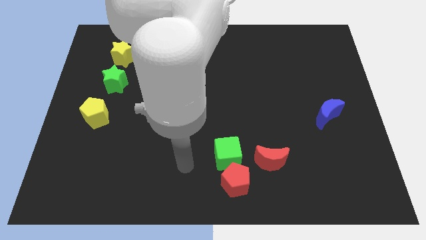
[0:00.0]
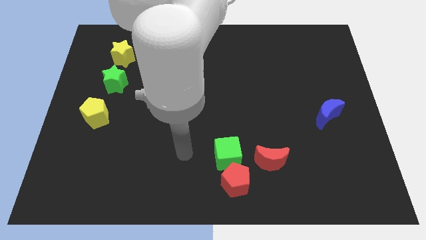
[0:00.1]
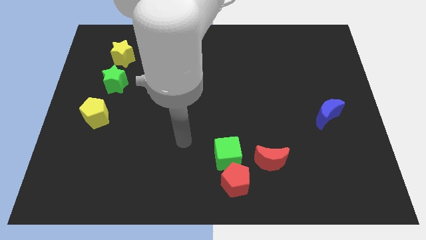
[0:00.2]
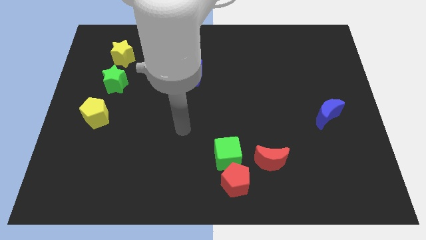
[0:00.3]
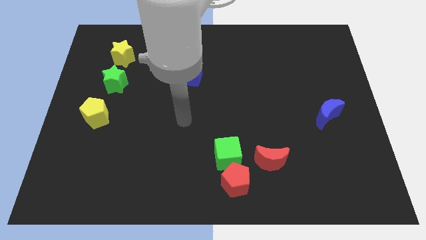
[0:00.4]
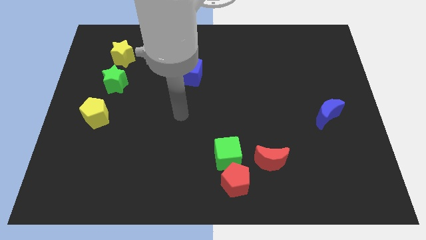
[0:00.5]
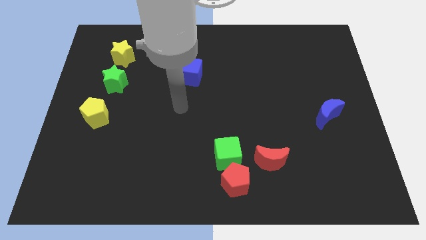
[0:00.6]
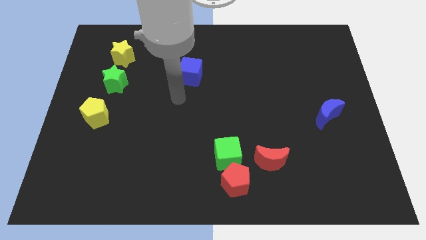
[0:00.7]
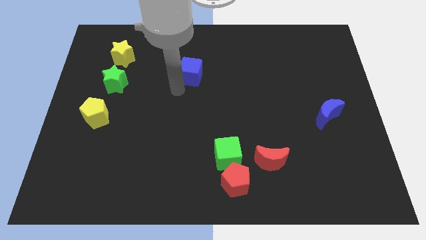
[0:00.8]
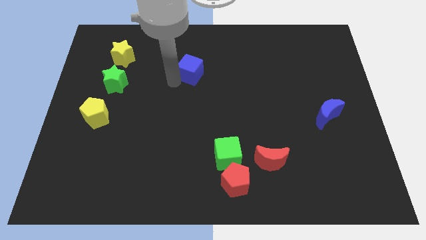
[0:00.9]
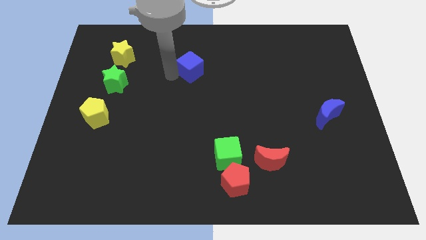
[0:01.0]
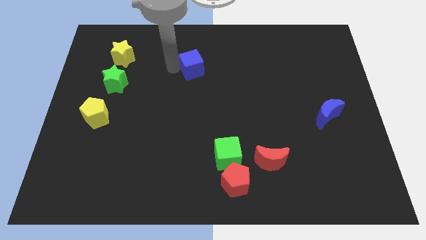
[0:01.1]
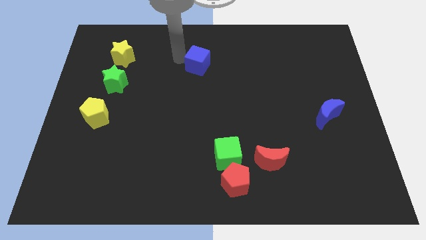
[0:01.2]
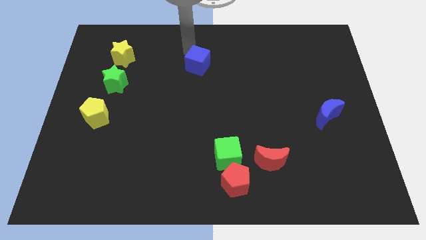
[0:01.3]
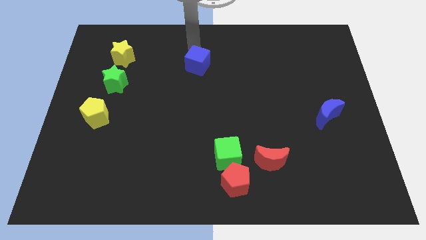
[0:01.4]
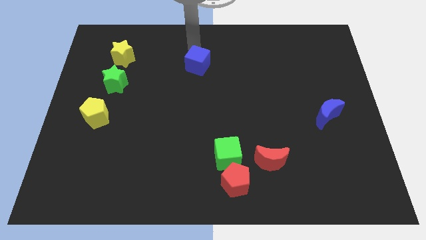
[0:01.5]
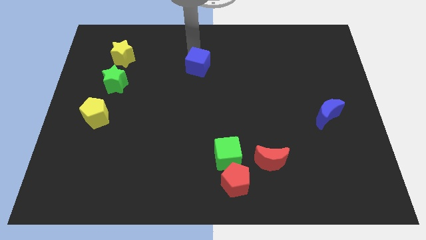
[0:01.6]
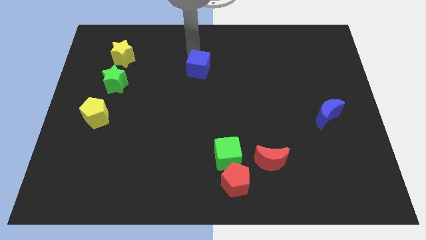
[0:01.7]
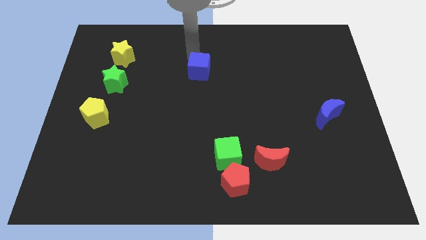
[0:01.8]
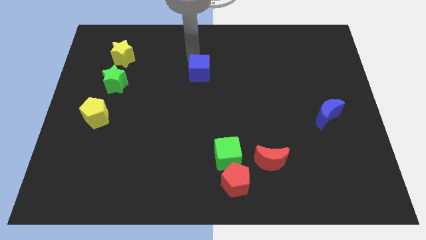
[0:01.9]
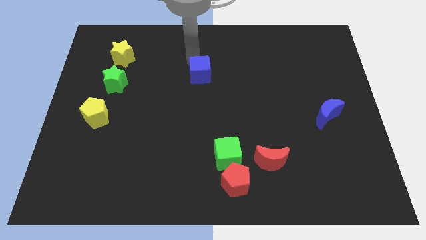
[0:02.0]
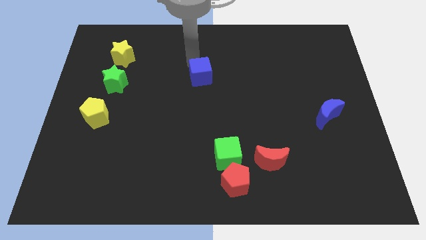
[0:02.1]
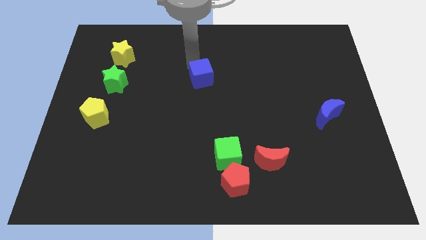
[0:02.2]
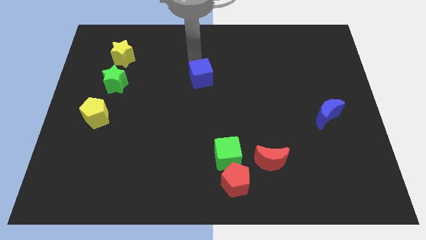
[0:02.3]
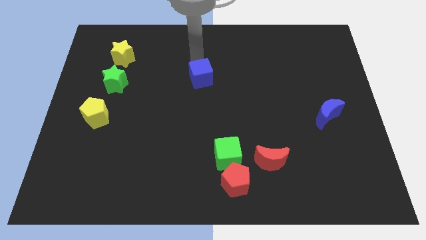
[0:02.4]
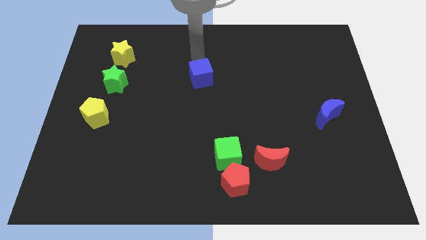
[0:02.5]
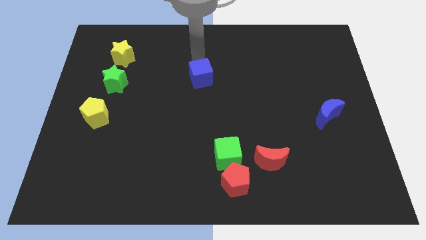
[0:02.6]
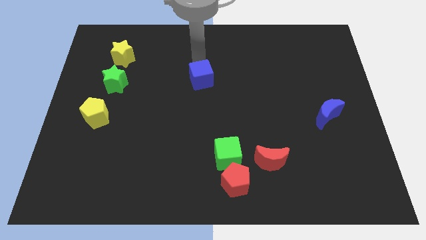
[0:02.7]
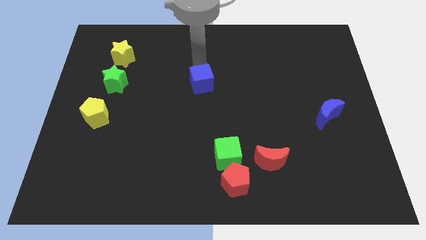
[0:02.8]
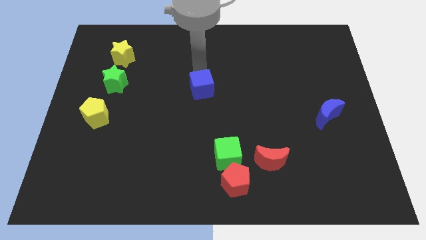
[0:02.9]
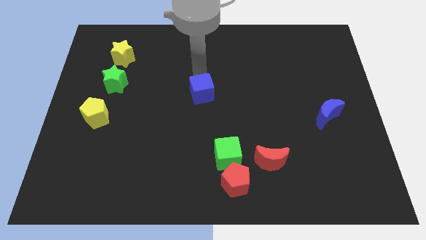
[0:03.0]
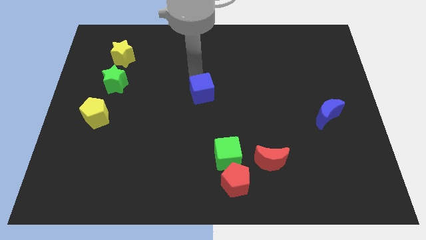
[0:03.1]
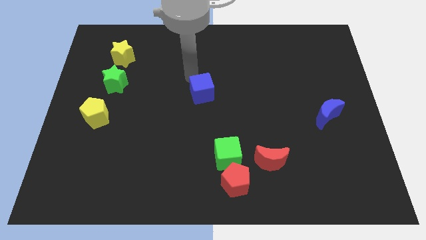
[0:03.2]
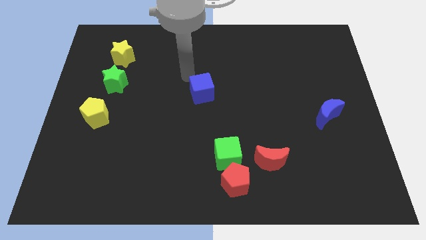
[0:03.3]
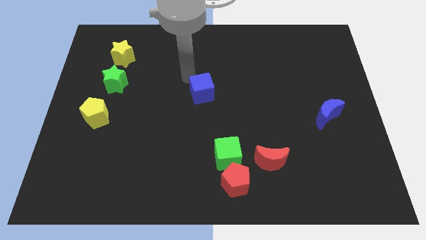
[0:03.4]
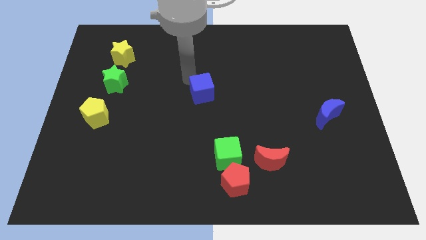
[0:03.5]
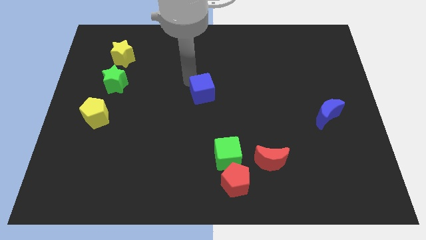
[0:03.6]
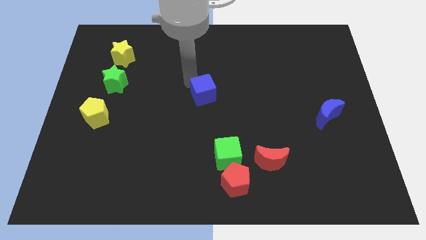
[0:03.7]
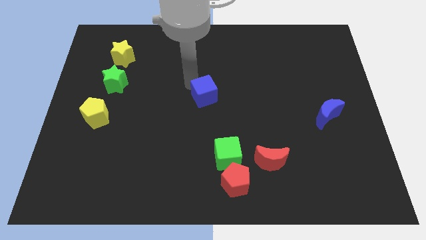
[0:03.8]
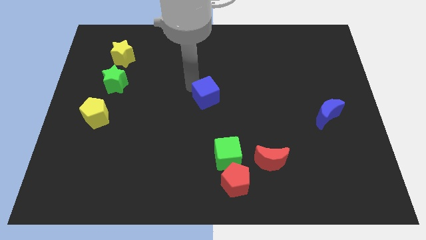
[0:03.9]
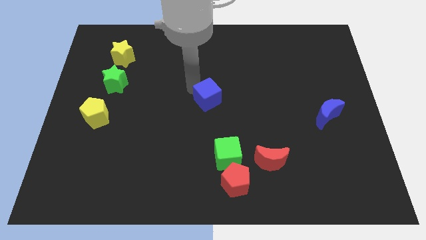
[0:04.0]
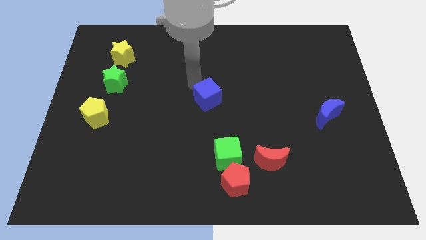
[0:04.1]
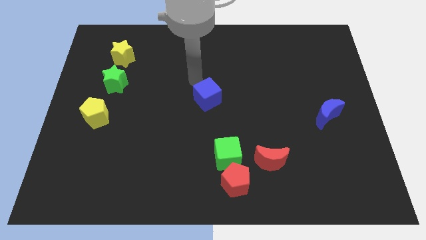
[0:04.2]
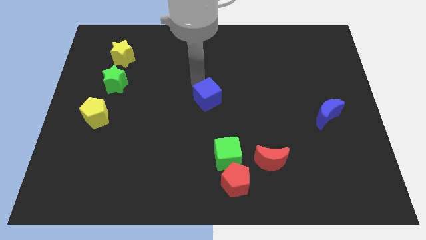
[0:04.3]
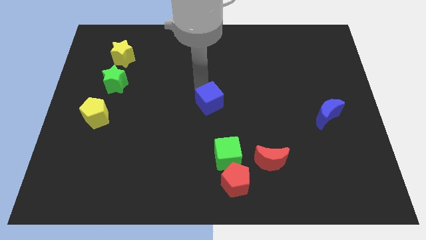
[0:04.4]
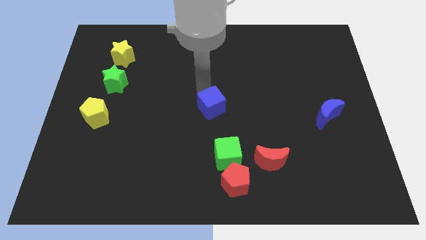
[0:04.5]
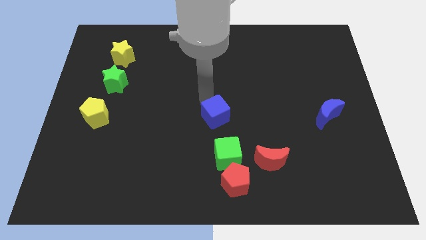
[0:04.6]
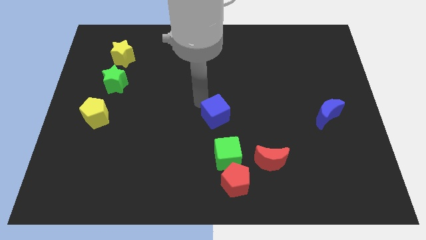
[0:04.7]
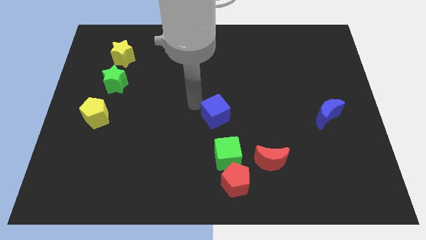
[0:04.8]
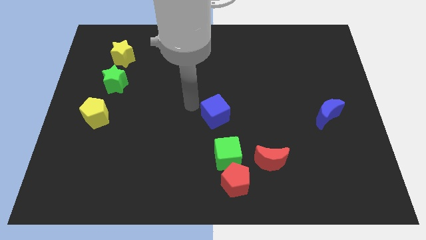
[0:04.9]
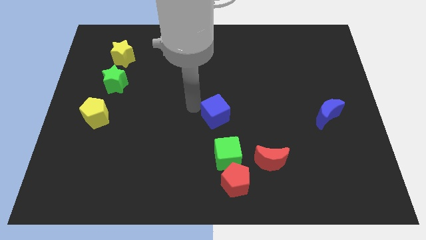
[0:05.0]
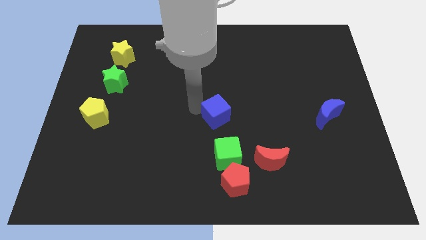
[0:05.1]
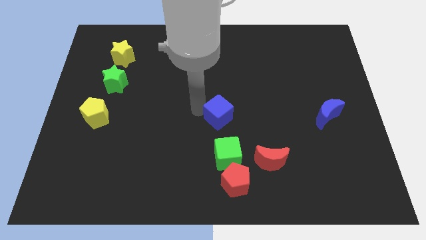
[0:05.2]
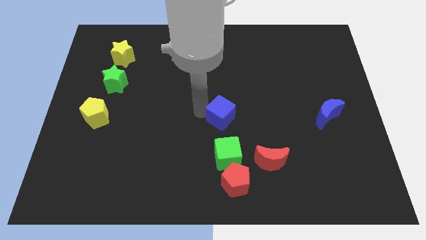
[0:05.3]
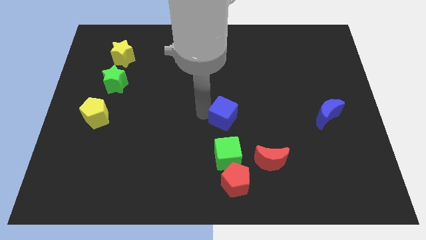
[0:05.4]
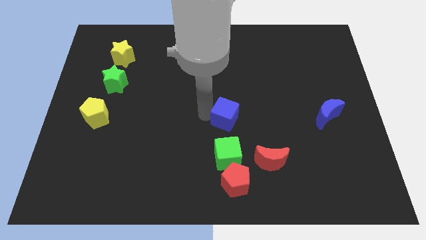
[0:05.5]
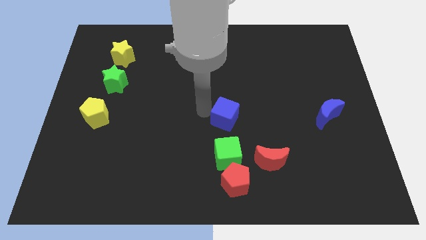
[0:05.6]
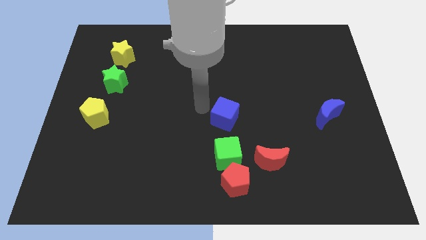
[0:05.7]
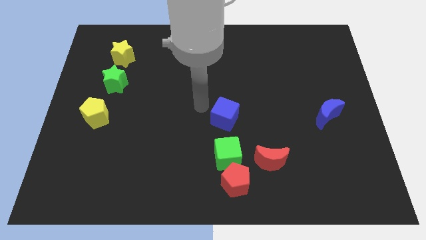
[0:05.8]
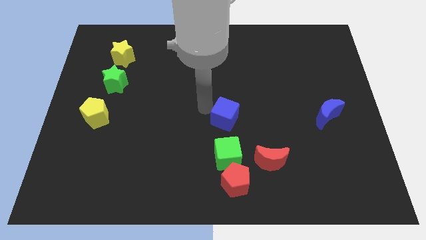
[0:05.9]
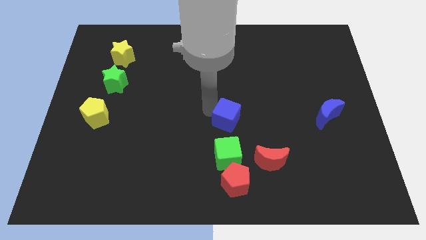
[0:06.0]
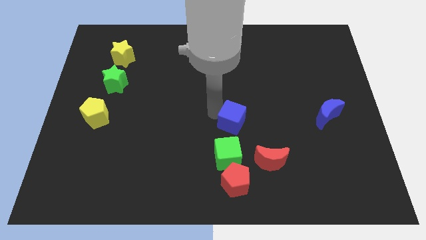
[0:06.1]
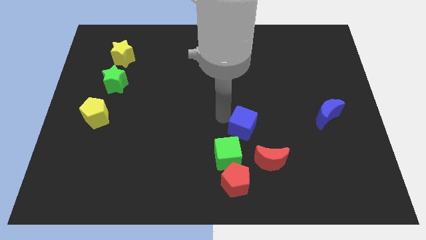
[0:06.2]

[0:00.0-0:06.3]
push the blue cube diagonally down and right

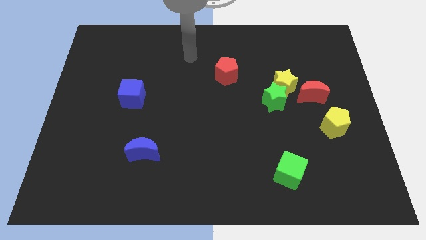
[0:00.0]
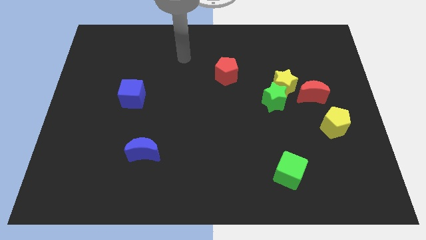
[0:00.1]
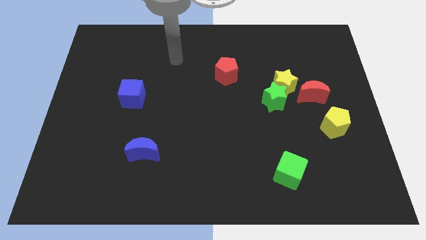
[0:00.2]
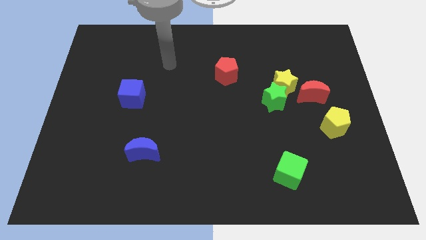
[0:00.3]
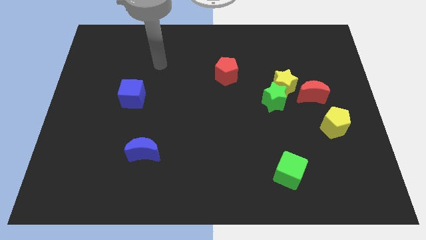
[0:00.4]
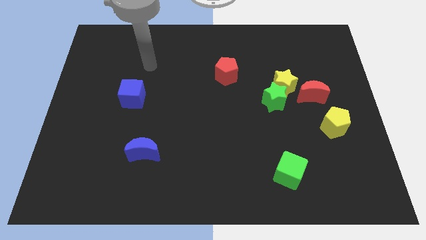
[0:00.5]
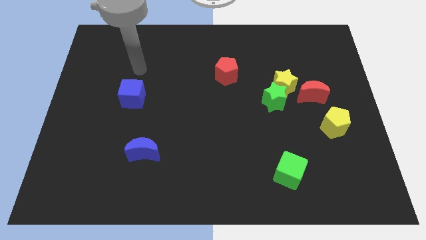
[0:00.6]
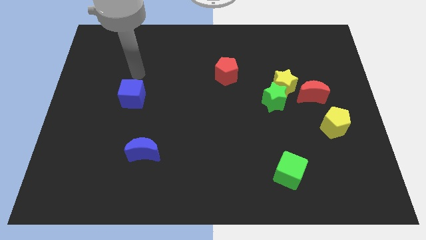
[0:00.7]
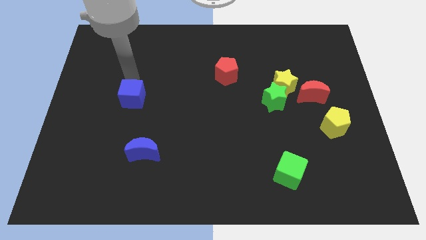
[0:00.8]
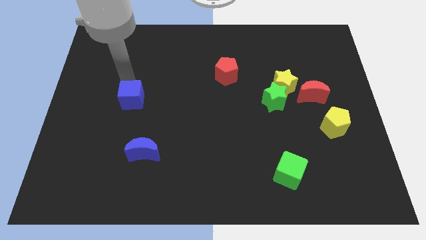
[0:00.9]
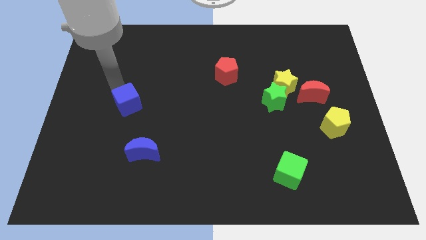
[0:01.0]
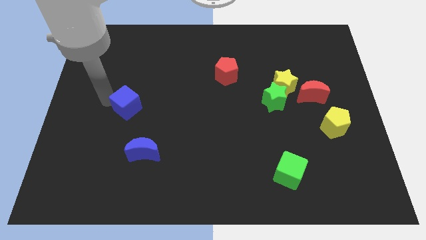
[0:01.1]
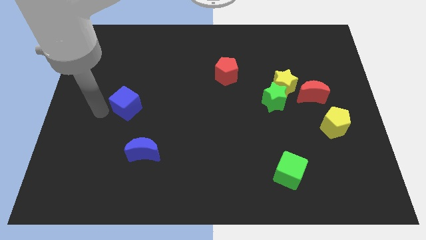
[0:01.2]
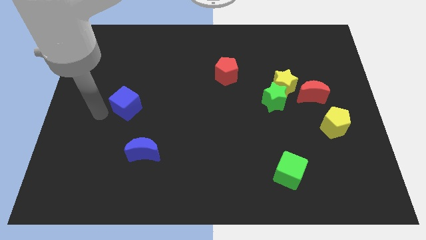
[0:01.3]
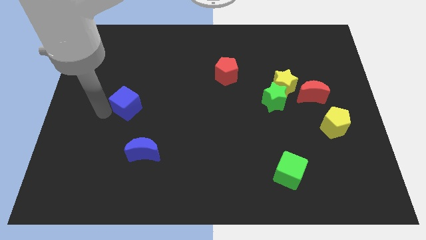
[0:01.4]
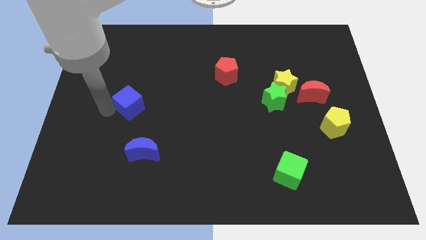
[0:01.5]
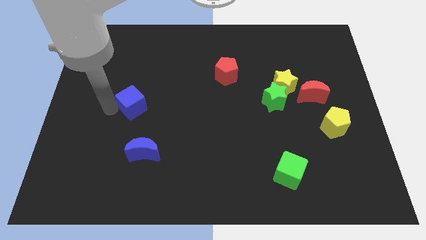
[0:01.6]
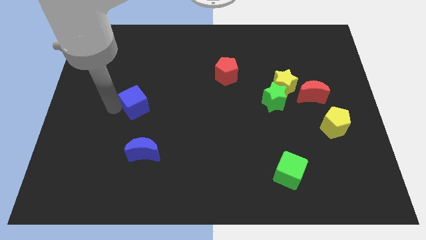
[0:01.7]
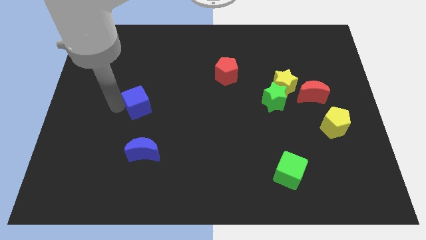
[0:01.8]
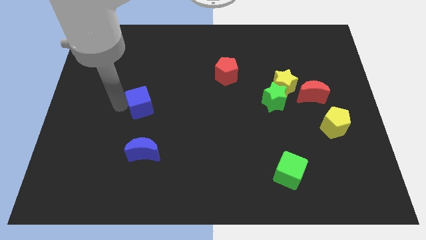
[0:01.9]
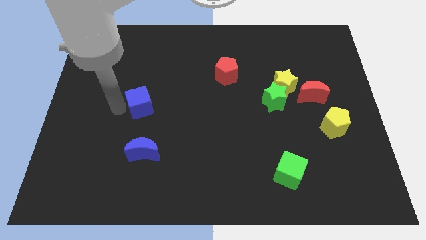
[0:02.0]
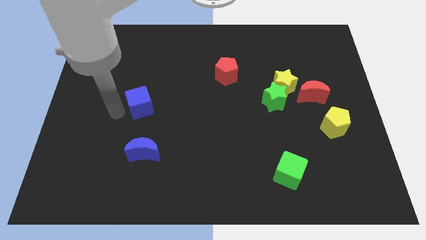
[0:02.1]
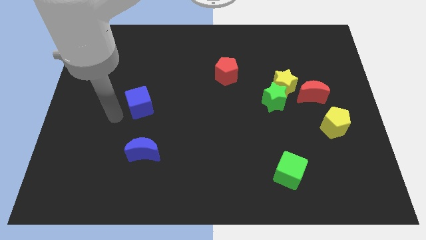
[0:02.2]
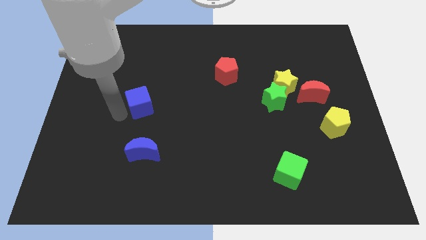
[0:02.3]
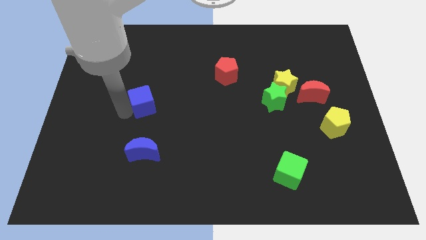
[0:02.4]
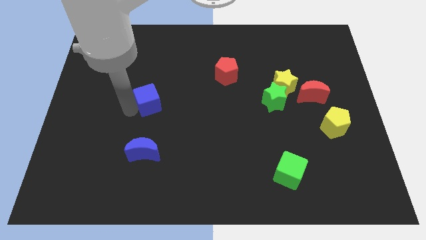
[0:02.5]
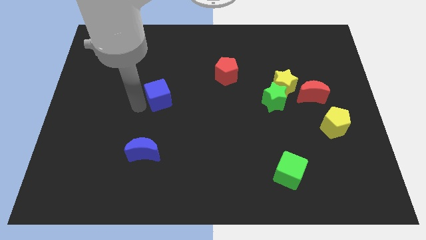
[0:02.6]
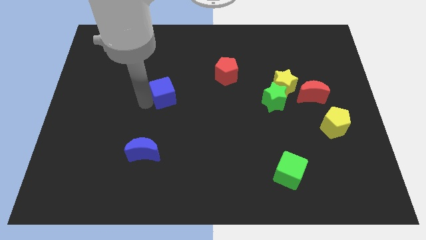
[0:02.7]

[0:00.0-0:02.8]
move the blue cube a little bit right
